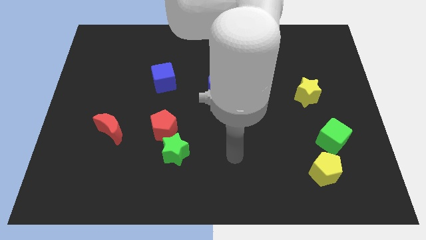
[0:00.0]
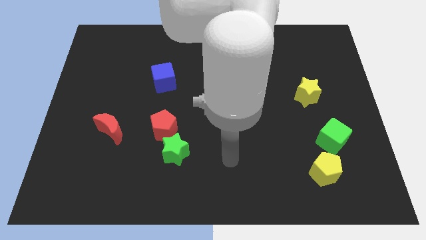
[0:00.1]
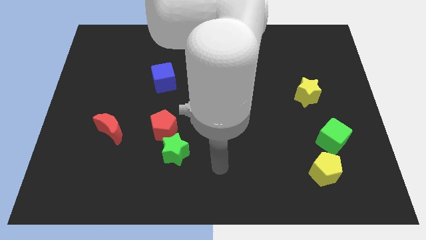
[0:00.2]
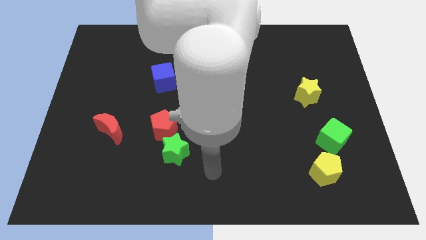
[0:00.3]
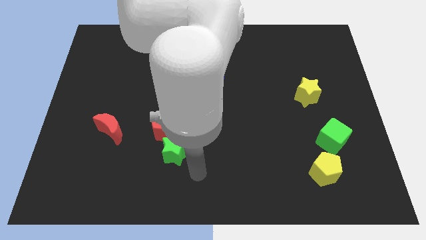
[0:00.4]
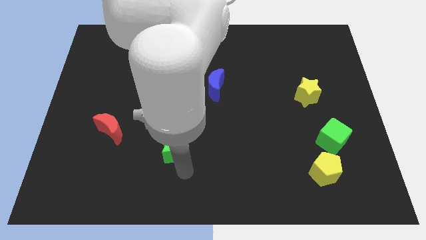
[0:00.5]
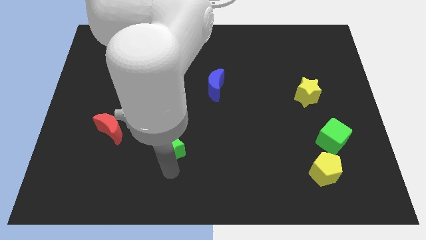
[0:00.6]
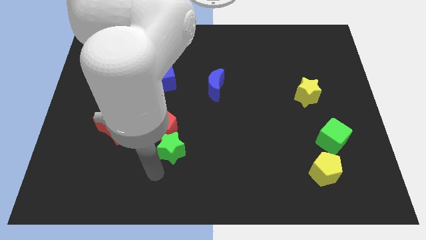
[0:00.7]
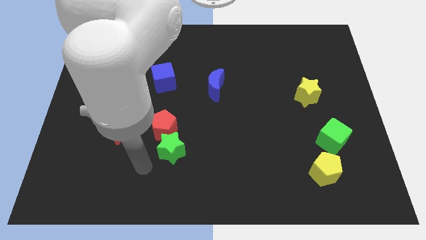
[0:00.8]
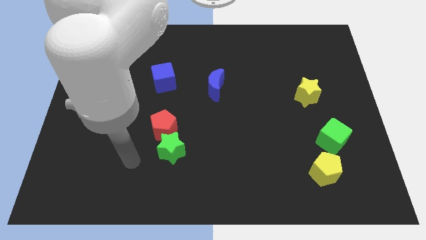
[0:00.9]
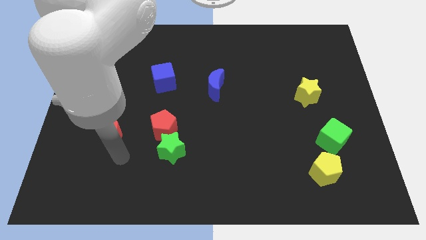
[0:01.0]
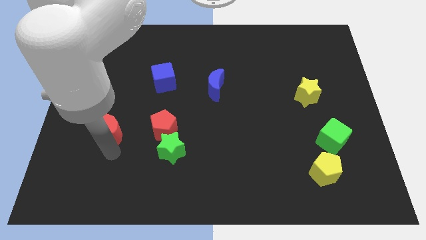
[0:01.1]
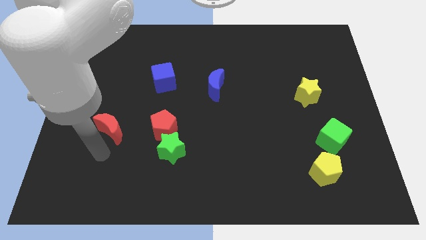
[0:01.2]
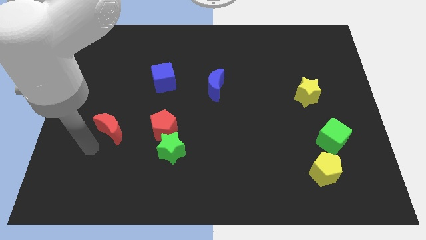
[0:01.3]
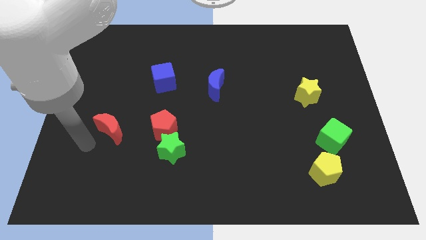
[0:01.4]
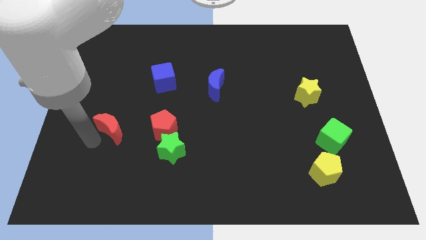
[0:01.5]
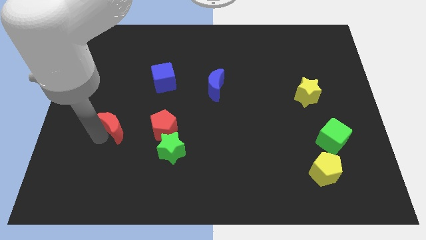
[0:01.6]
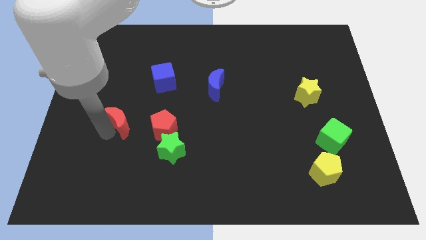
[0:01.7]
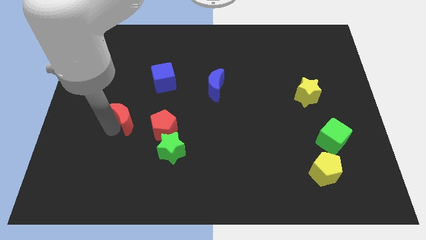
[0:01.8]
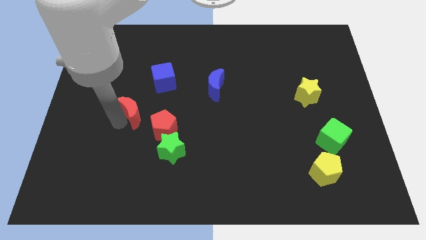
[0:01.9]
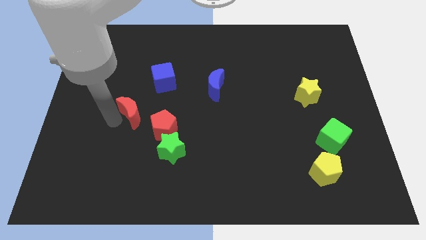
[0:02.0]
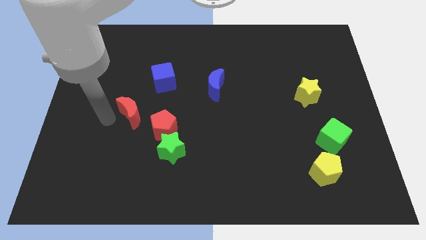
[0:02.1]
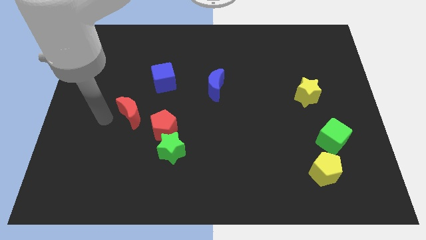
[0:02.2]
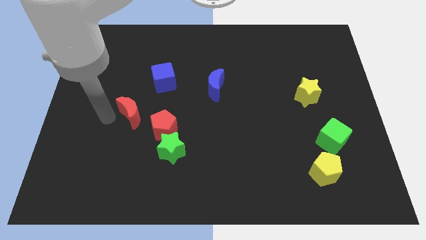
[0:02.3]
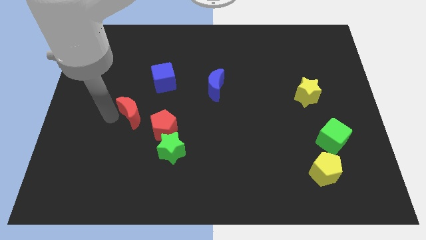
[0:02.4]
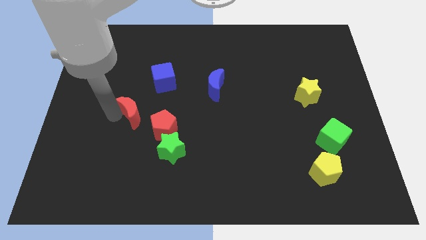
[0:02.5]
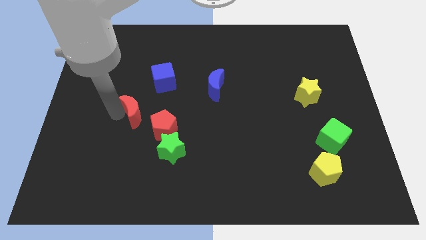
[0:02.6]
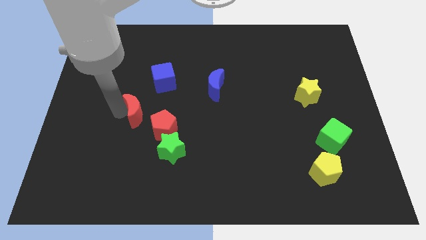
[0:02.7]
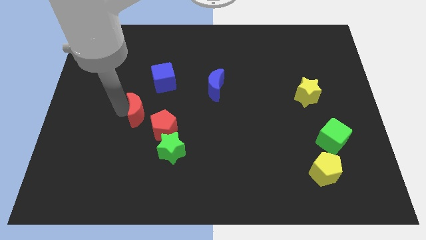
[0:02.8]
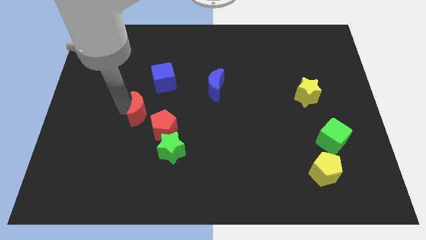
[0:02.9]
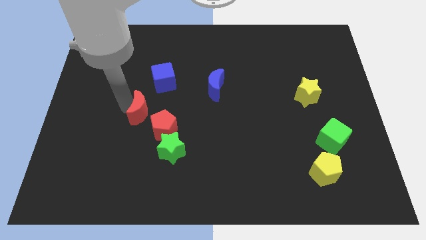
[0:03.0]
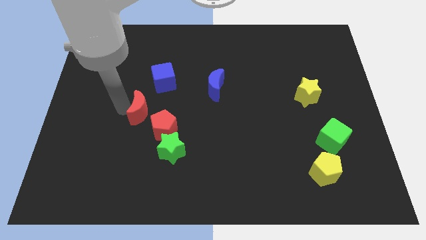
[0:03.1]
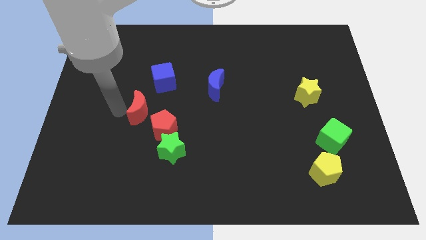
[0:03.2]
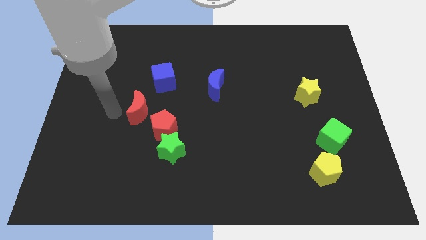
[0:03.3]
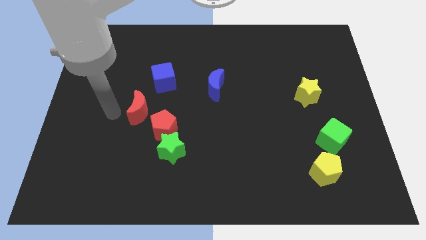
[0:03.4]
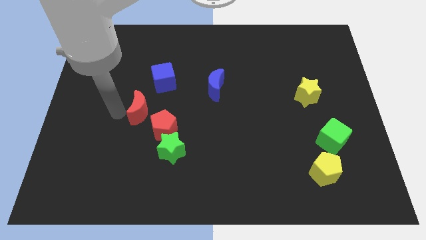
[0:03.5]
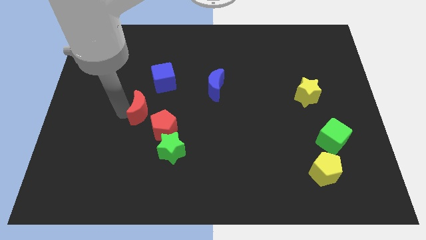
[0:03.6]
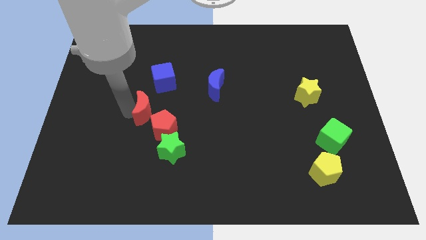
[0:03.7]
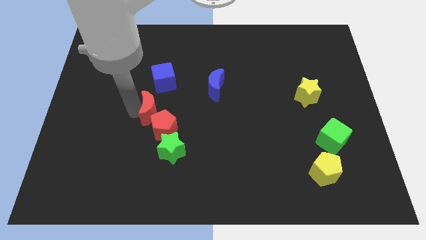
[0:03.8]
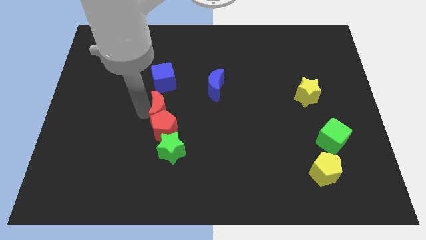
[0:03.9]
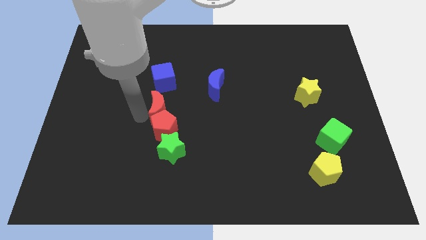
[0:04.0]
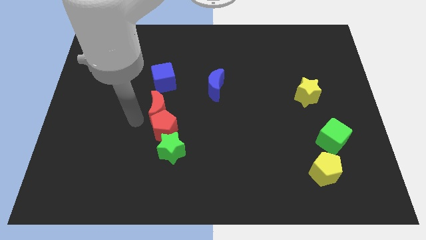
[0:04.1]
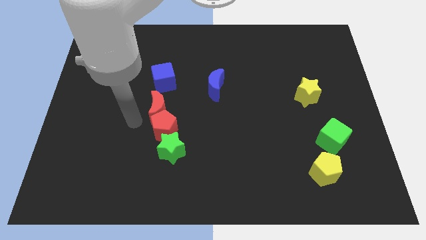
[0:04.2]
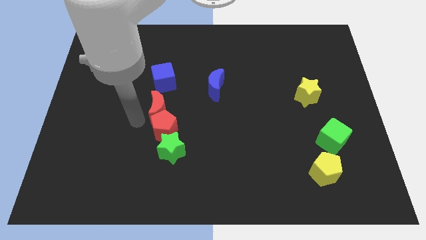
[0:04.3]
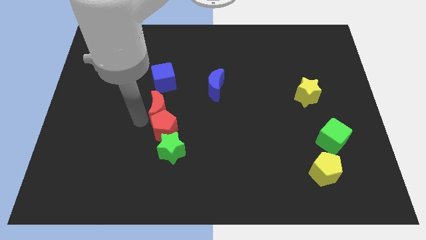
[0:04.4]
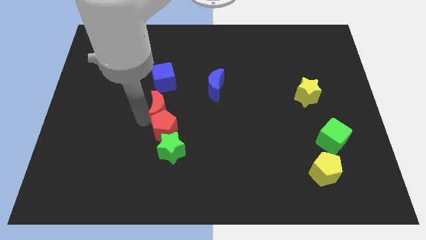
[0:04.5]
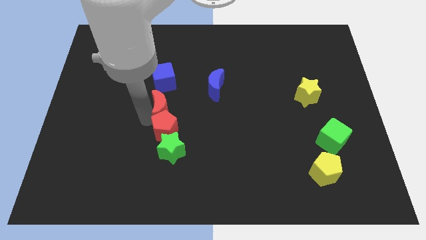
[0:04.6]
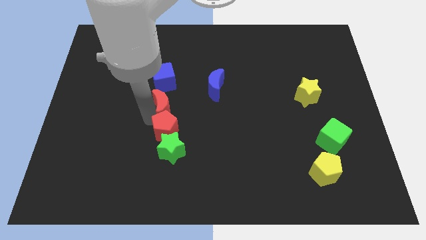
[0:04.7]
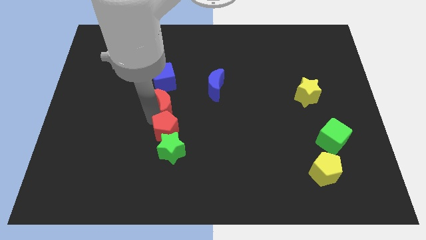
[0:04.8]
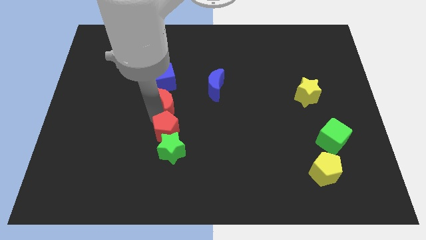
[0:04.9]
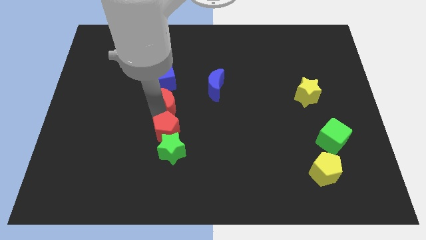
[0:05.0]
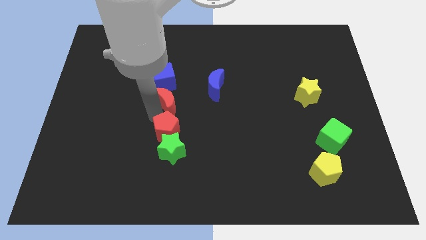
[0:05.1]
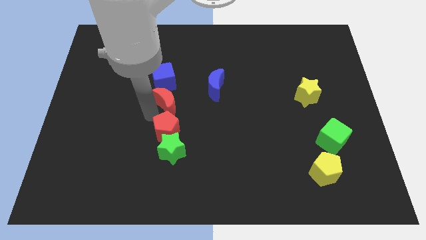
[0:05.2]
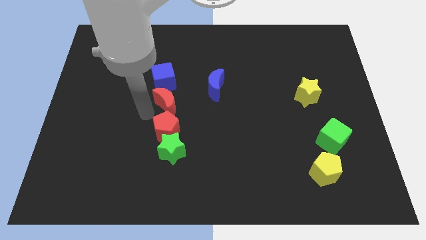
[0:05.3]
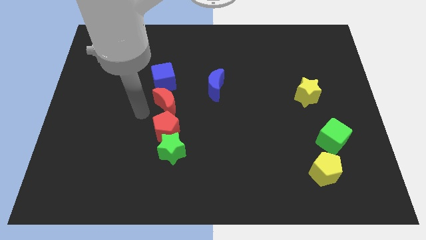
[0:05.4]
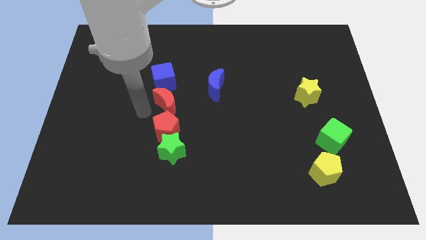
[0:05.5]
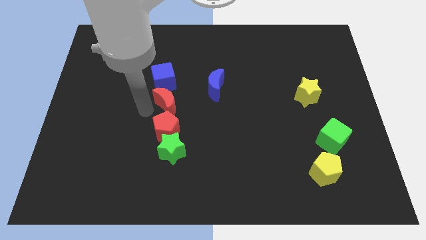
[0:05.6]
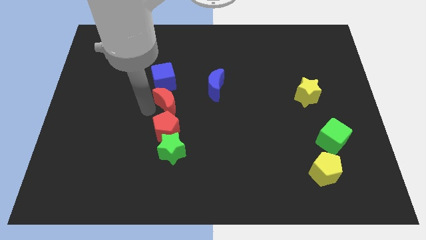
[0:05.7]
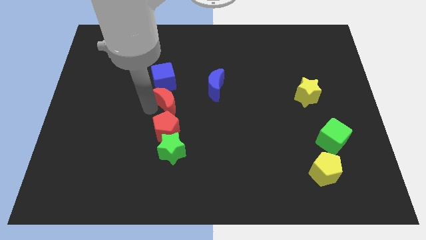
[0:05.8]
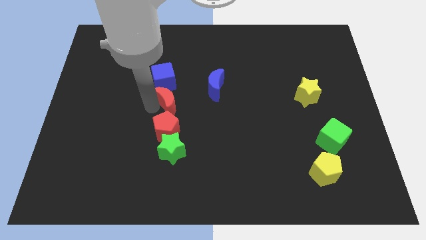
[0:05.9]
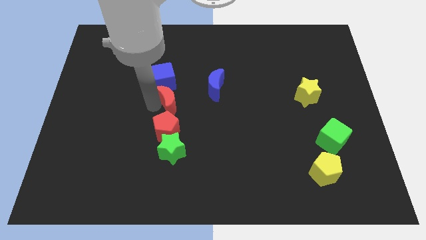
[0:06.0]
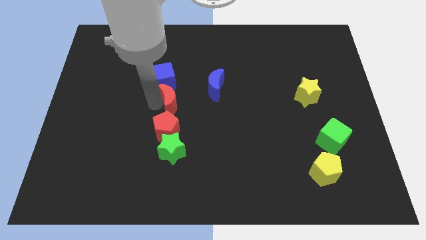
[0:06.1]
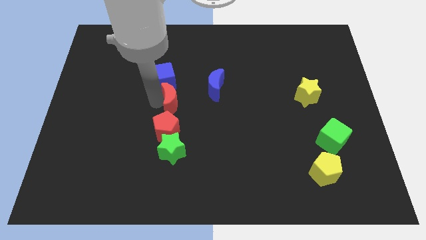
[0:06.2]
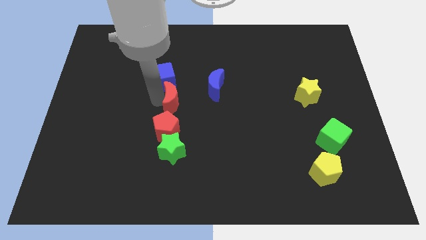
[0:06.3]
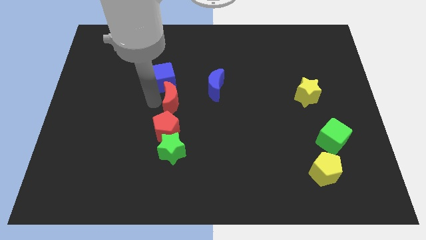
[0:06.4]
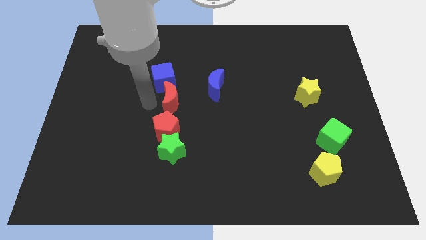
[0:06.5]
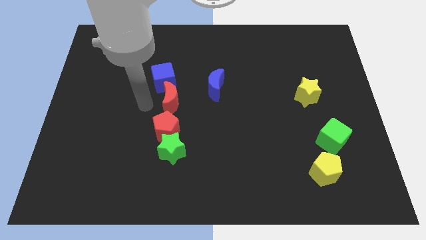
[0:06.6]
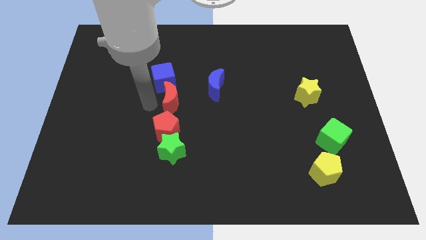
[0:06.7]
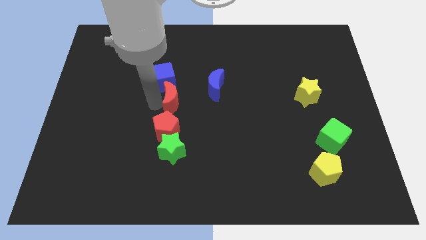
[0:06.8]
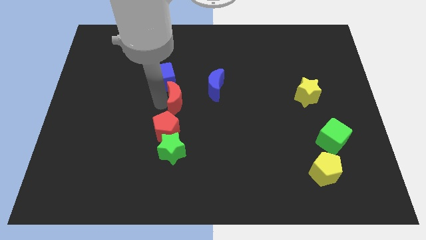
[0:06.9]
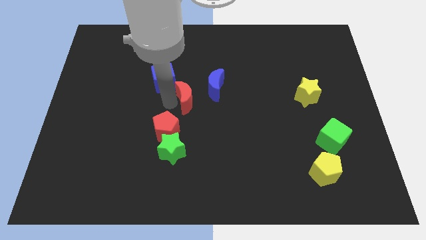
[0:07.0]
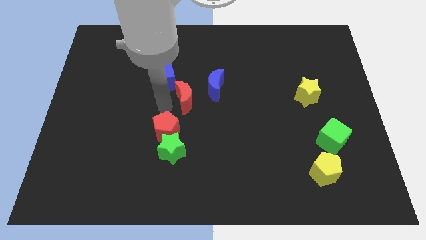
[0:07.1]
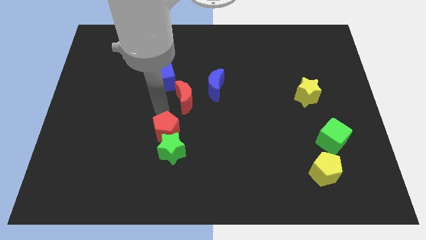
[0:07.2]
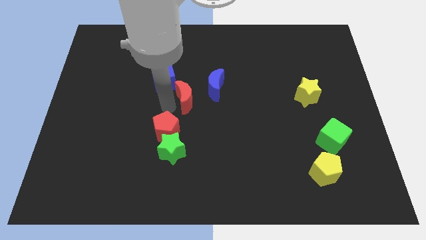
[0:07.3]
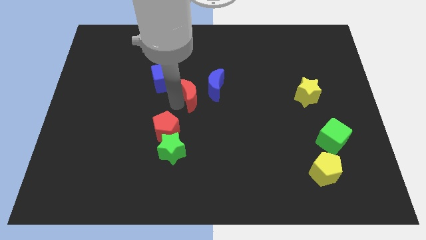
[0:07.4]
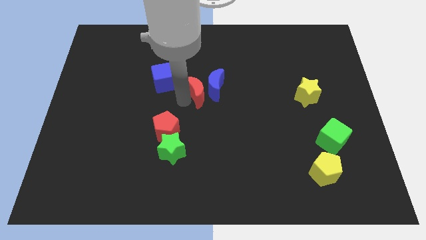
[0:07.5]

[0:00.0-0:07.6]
move the red moon next to the blue moon

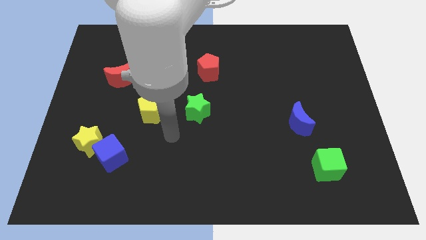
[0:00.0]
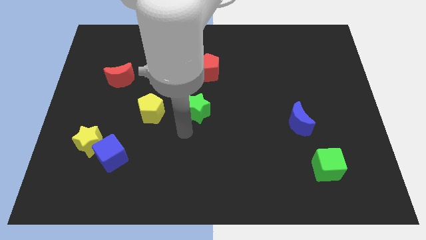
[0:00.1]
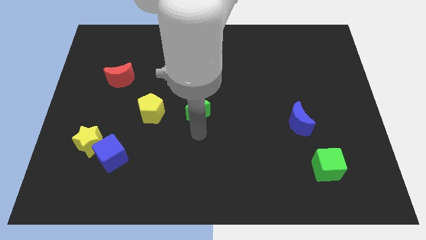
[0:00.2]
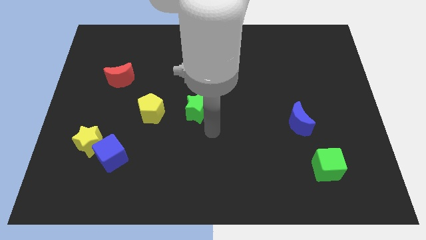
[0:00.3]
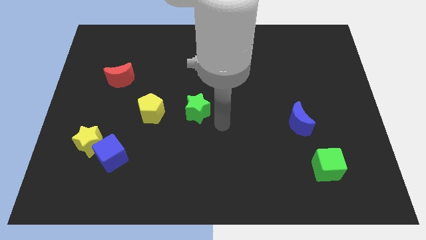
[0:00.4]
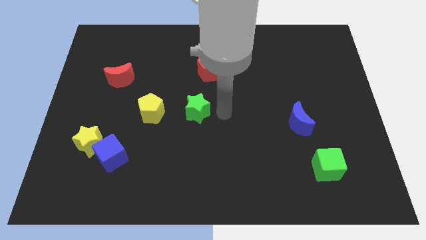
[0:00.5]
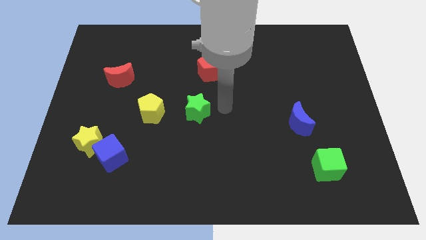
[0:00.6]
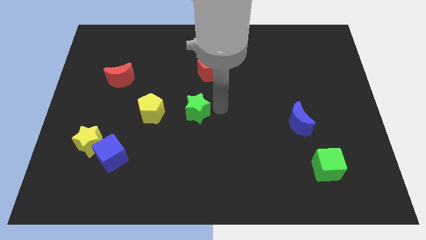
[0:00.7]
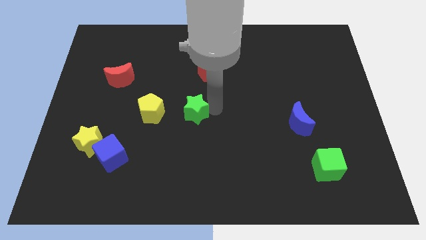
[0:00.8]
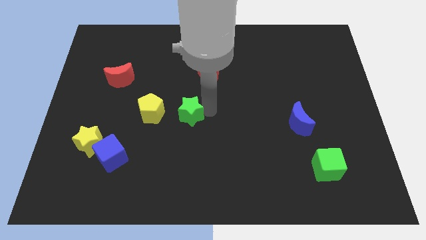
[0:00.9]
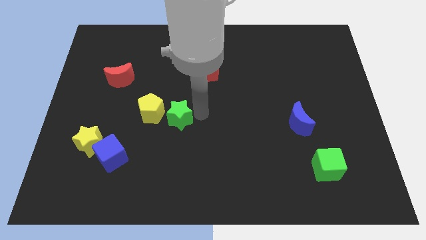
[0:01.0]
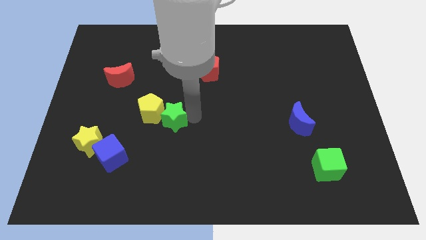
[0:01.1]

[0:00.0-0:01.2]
move the green star next to the yellow pentagon
